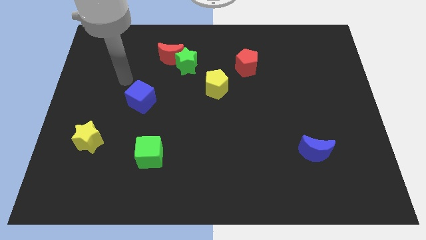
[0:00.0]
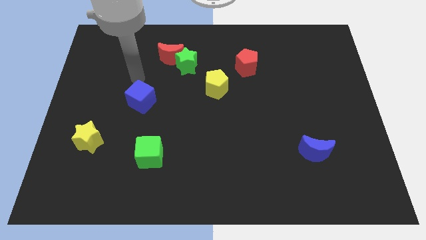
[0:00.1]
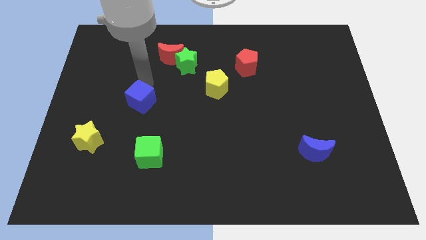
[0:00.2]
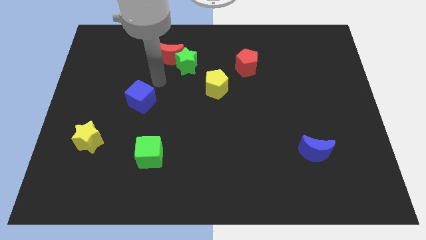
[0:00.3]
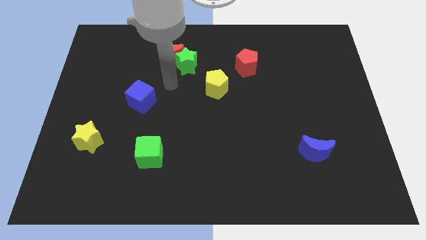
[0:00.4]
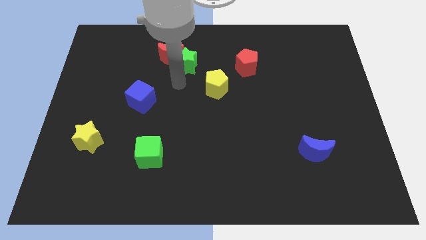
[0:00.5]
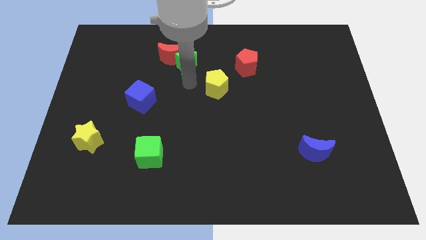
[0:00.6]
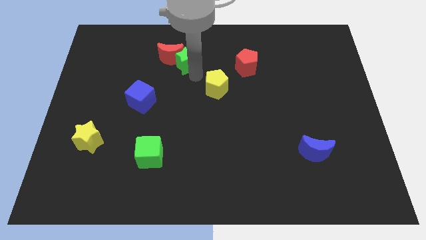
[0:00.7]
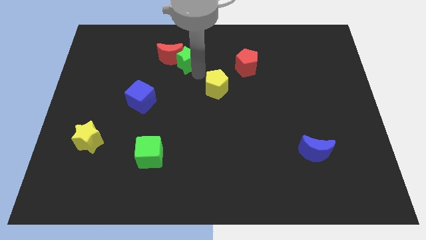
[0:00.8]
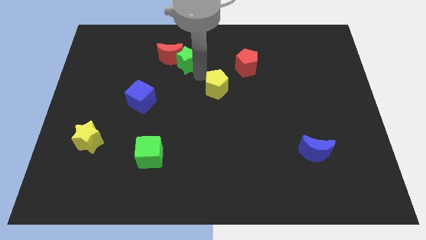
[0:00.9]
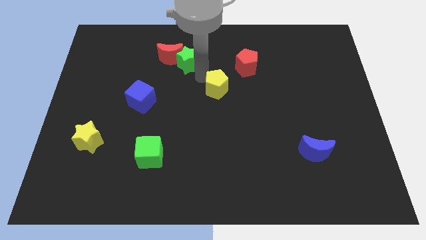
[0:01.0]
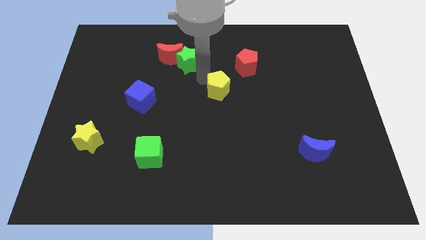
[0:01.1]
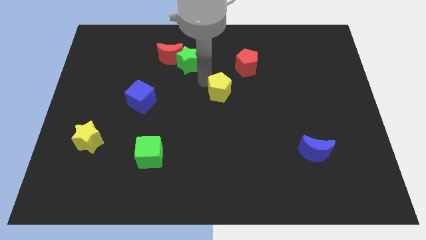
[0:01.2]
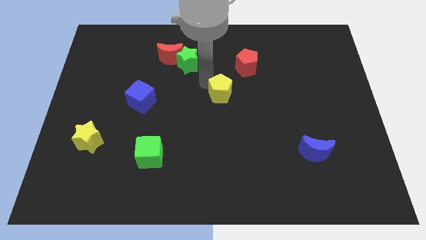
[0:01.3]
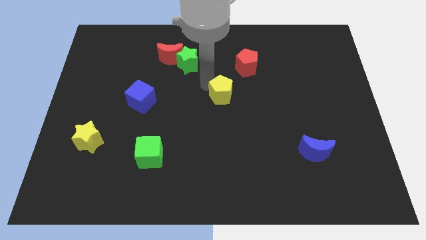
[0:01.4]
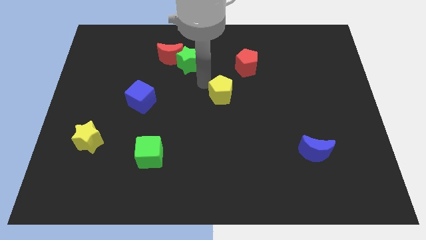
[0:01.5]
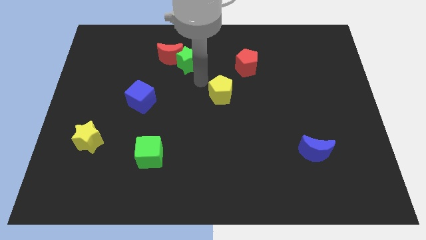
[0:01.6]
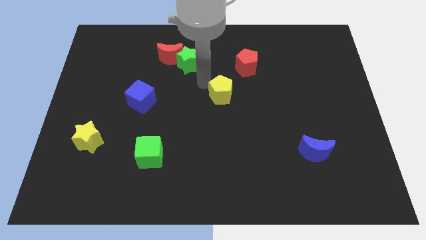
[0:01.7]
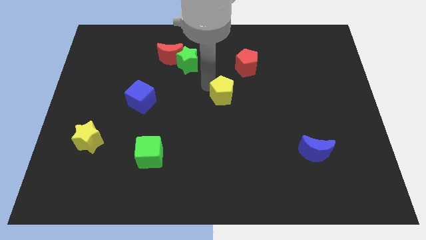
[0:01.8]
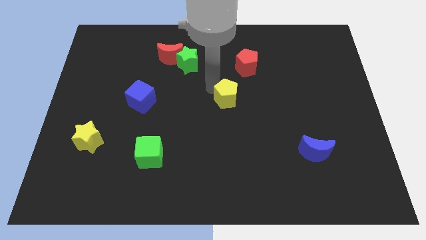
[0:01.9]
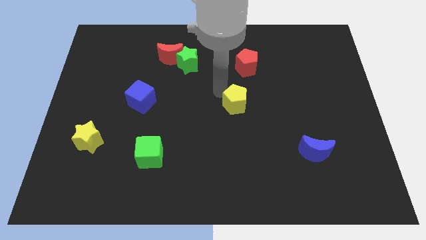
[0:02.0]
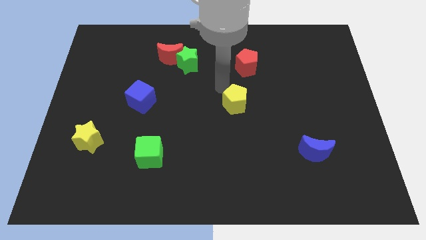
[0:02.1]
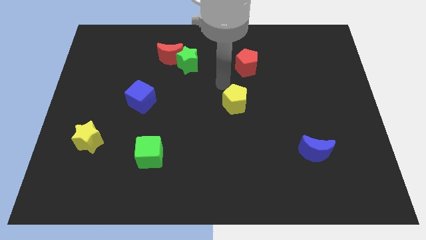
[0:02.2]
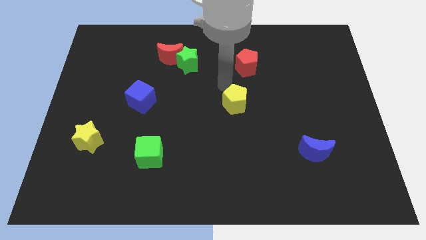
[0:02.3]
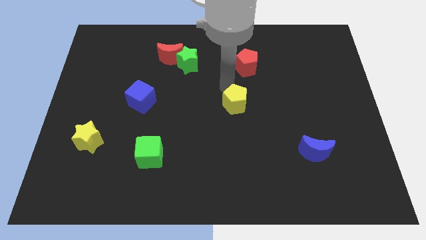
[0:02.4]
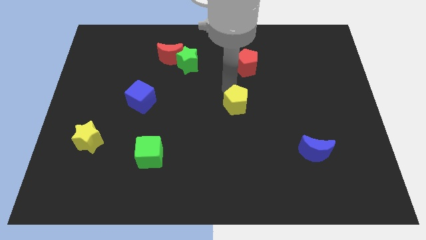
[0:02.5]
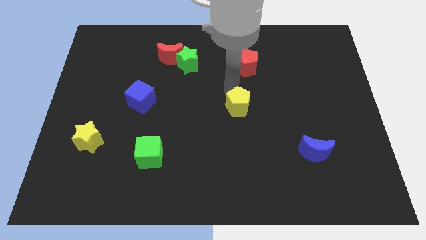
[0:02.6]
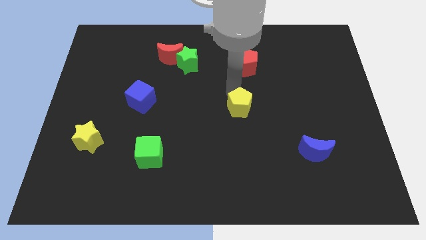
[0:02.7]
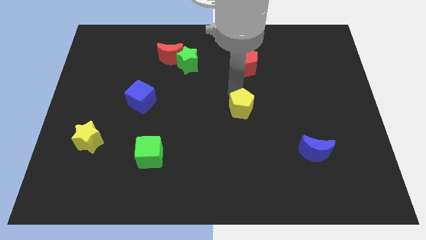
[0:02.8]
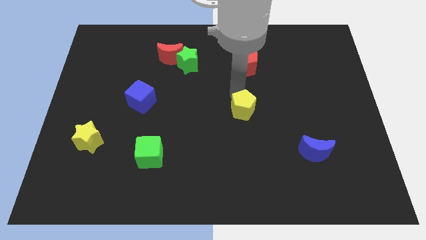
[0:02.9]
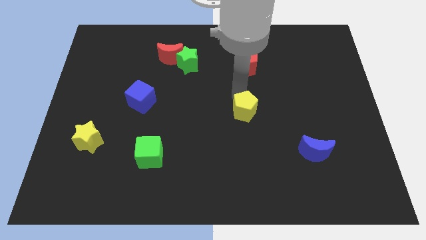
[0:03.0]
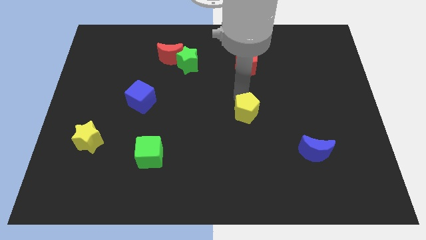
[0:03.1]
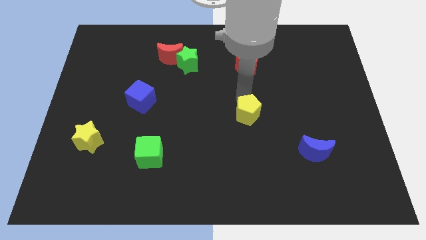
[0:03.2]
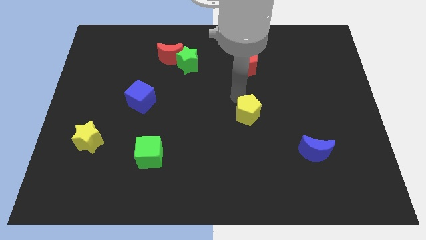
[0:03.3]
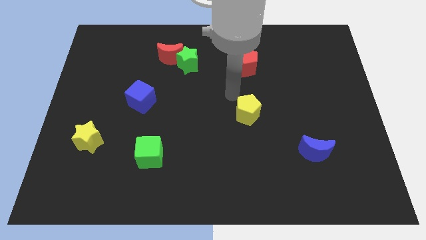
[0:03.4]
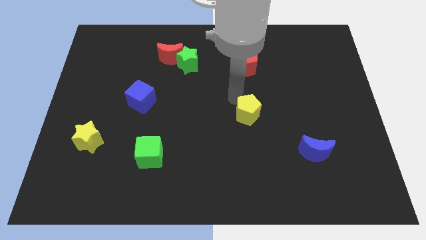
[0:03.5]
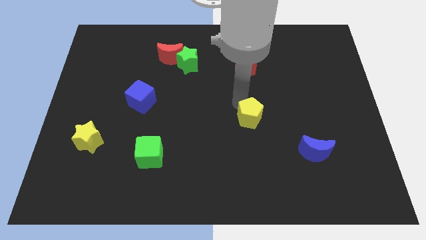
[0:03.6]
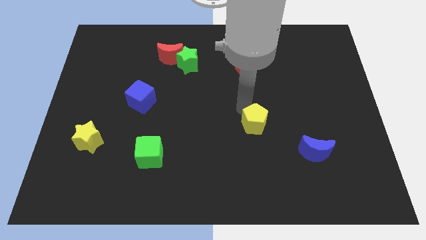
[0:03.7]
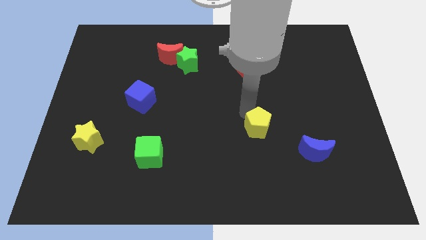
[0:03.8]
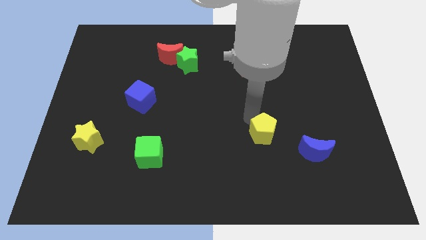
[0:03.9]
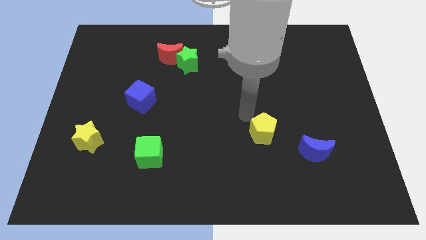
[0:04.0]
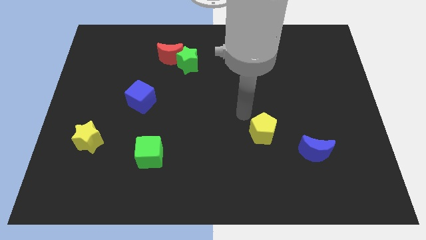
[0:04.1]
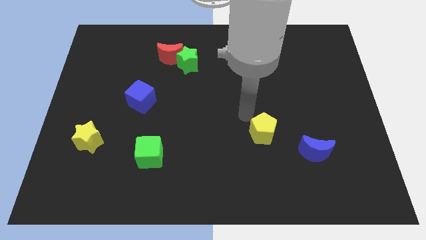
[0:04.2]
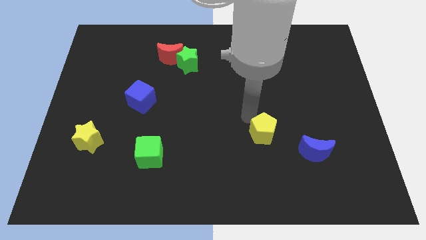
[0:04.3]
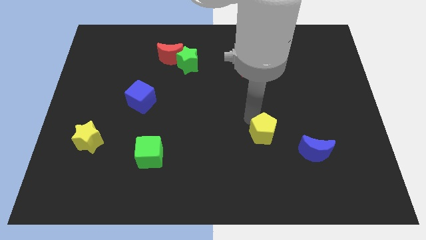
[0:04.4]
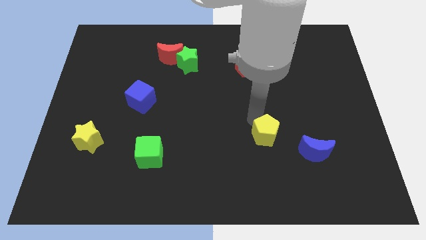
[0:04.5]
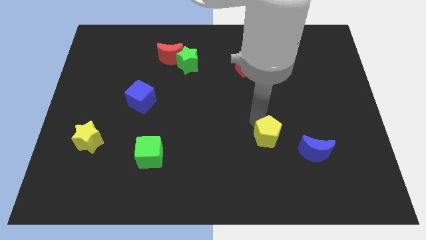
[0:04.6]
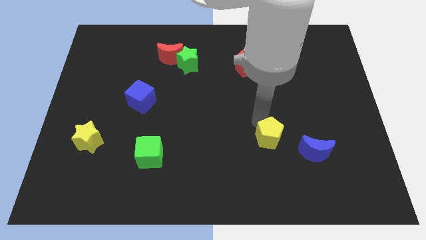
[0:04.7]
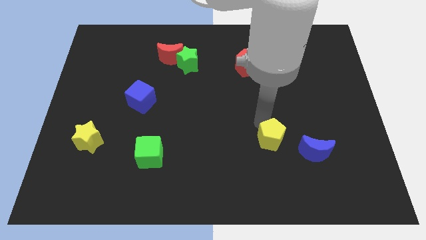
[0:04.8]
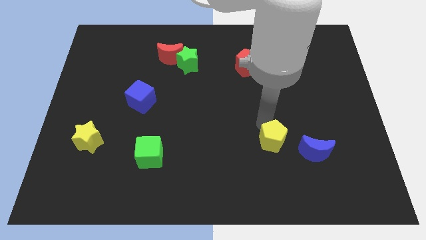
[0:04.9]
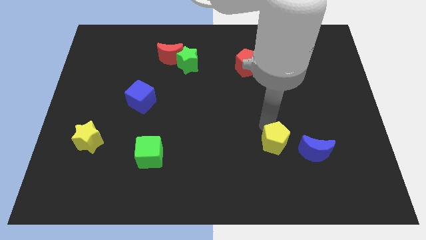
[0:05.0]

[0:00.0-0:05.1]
push the yellow pentagon down and then to the right

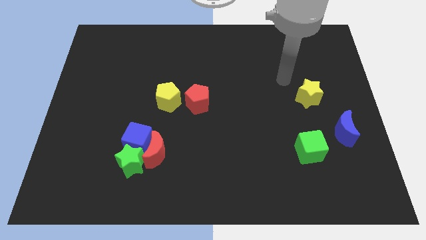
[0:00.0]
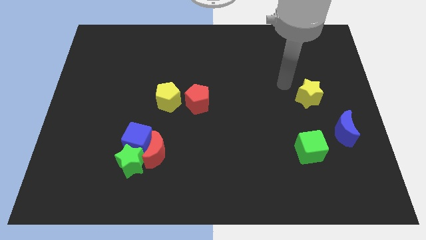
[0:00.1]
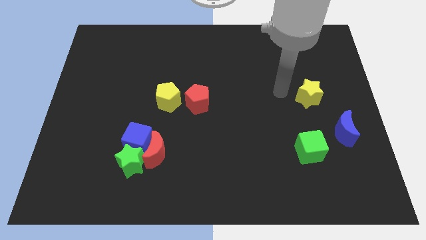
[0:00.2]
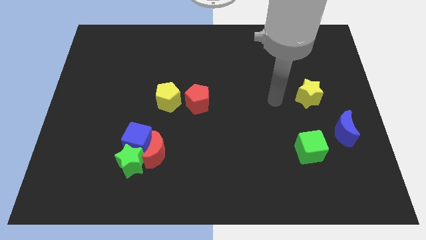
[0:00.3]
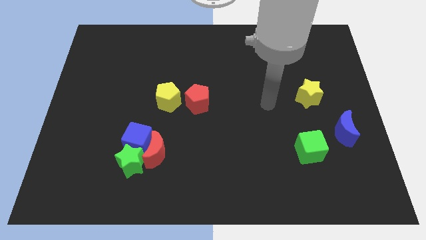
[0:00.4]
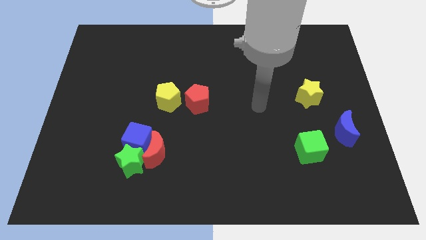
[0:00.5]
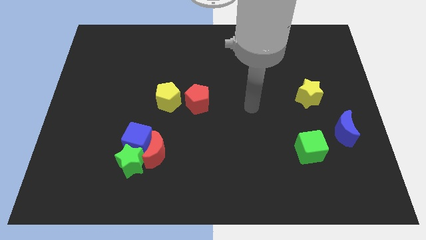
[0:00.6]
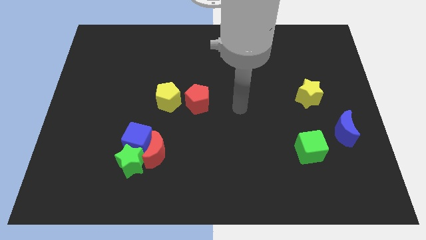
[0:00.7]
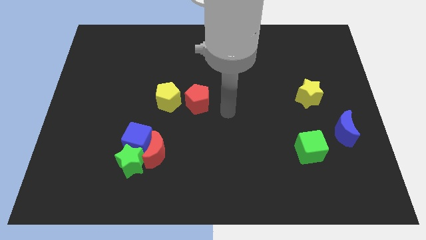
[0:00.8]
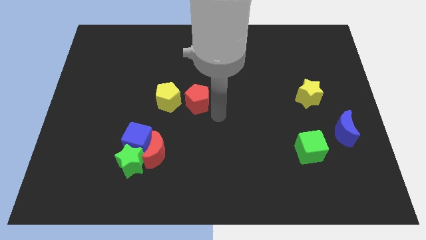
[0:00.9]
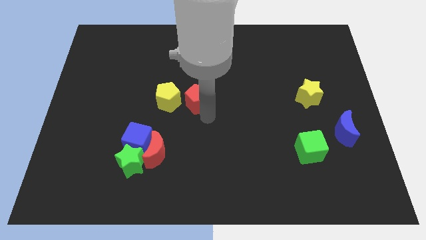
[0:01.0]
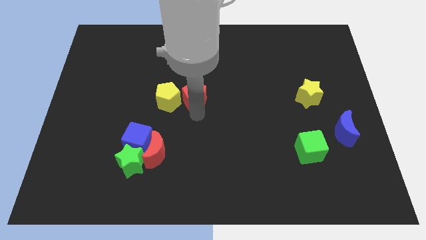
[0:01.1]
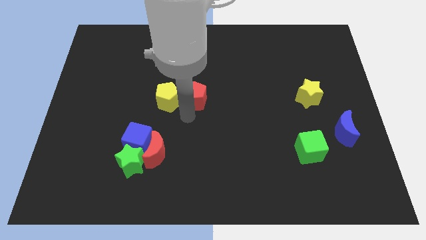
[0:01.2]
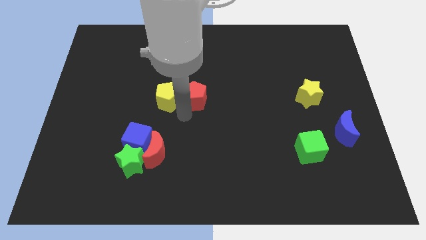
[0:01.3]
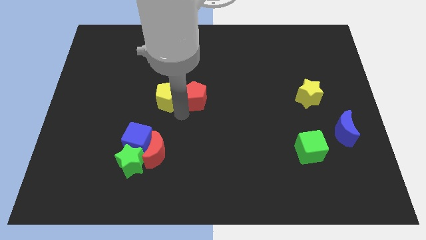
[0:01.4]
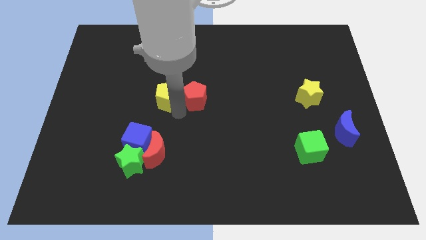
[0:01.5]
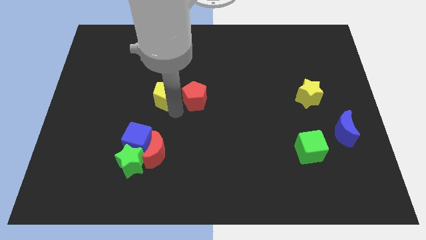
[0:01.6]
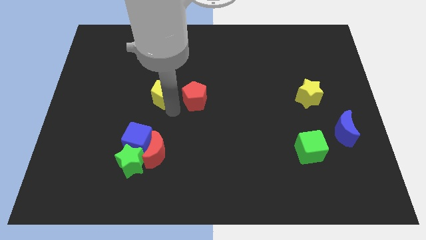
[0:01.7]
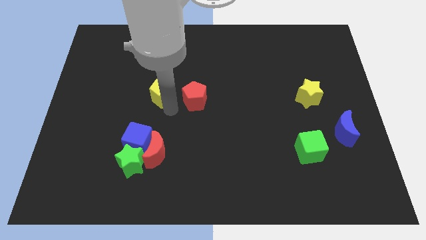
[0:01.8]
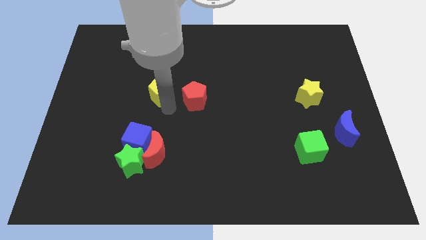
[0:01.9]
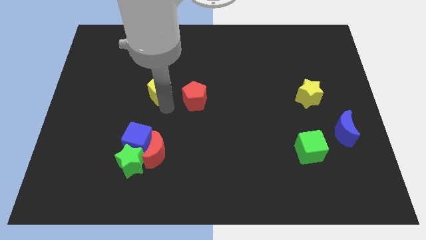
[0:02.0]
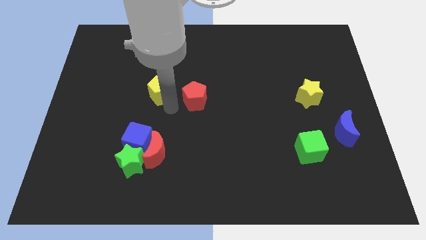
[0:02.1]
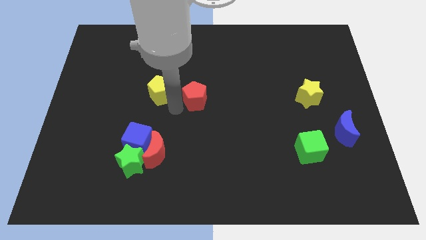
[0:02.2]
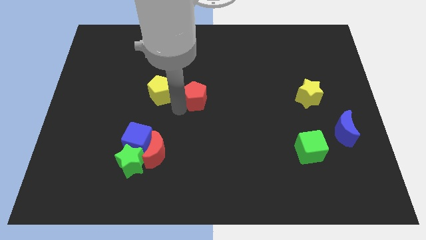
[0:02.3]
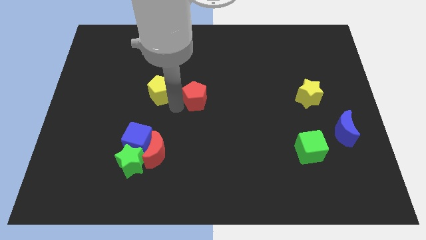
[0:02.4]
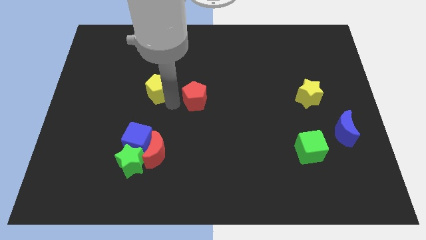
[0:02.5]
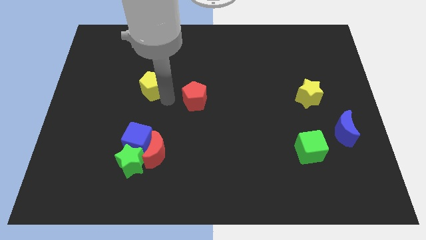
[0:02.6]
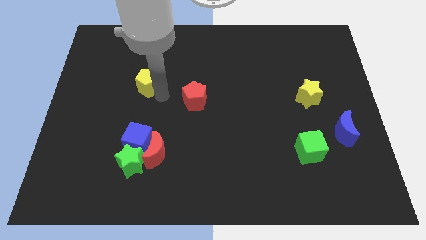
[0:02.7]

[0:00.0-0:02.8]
slightly move the yellow pentagon diagonally up and to the left

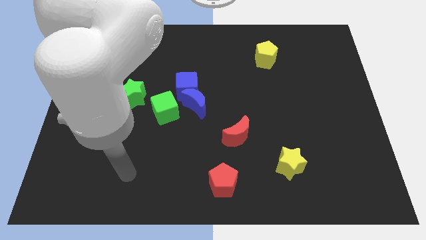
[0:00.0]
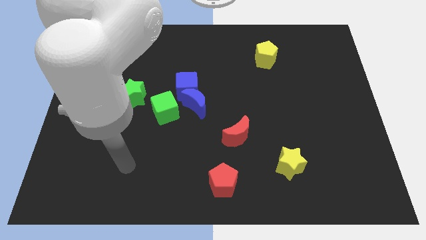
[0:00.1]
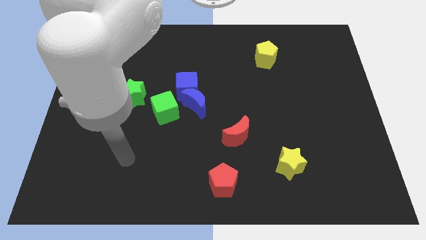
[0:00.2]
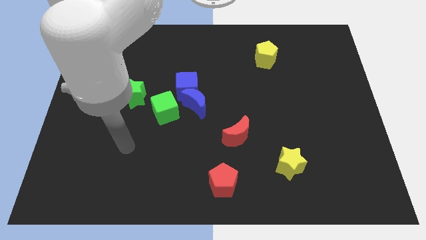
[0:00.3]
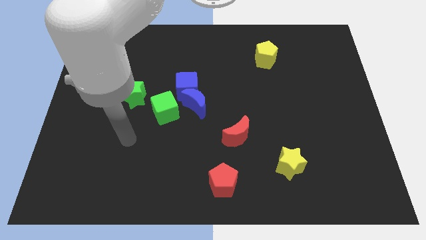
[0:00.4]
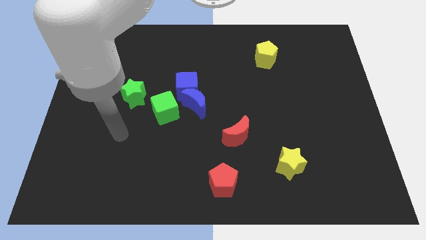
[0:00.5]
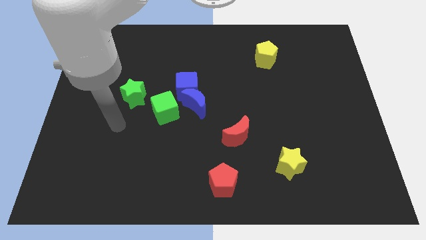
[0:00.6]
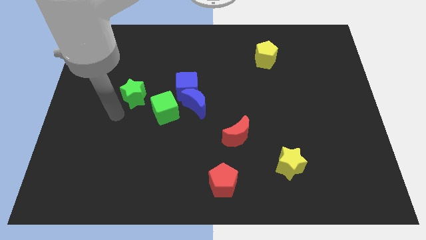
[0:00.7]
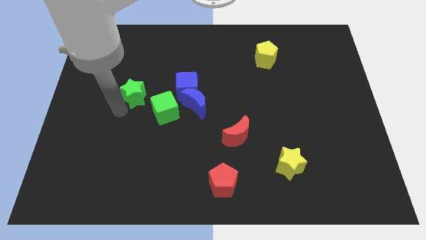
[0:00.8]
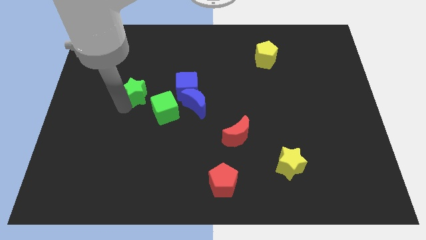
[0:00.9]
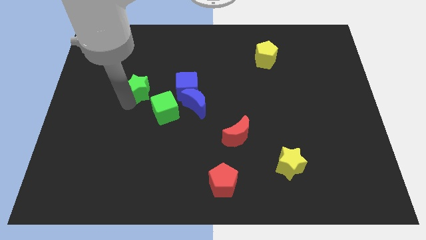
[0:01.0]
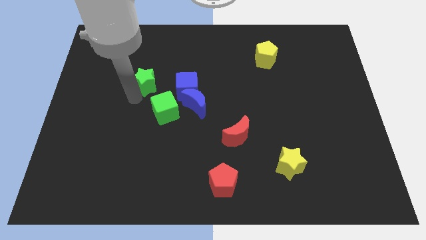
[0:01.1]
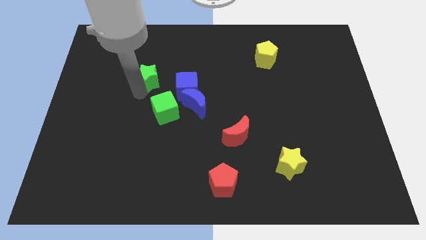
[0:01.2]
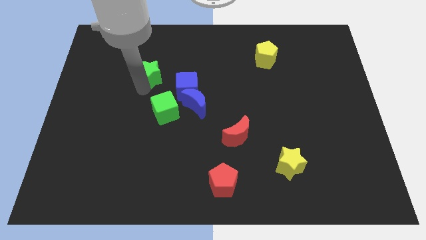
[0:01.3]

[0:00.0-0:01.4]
slide the green star somewhat upwards and to the right
